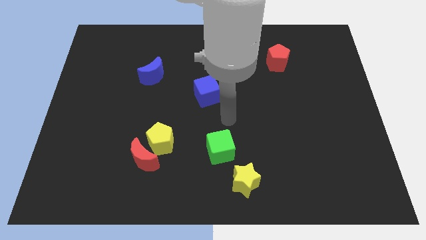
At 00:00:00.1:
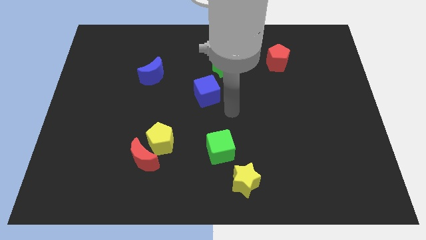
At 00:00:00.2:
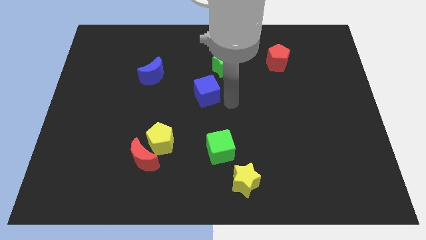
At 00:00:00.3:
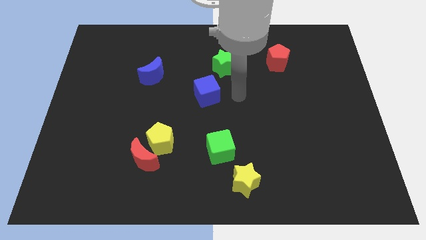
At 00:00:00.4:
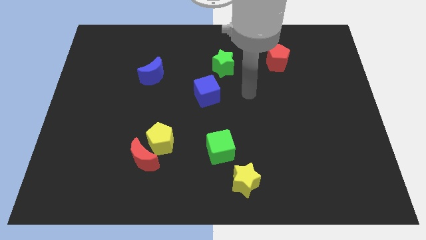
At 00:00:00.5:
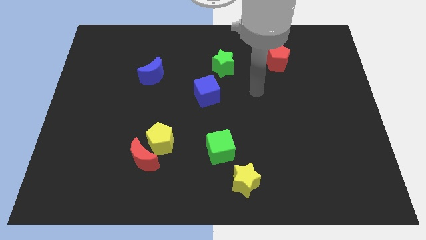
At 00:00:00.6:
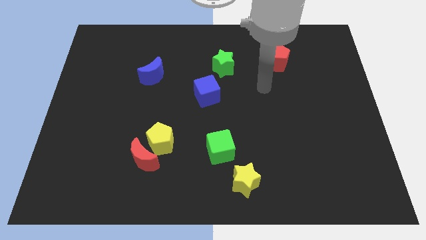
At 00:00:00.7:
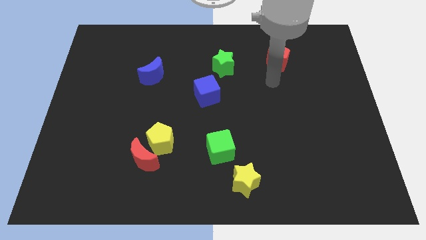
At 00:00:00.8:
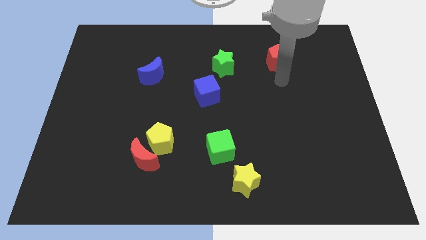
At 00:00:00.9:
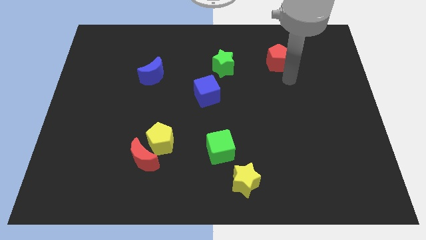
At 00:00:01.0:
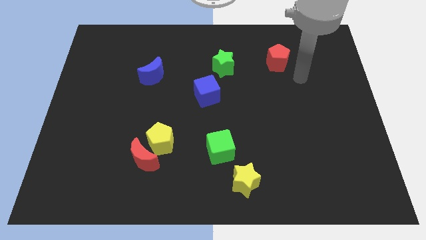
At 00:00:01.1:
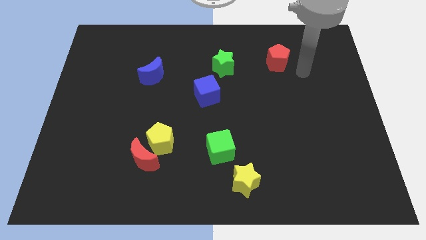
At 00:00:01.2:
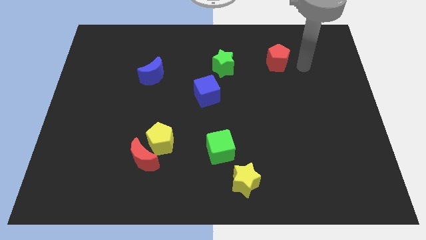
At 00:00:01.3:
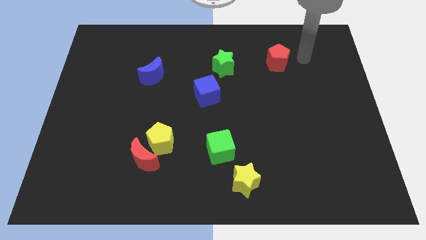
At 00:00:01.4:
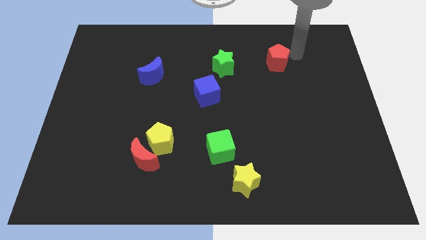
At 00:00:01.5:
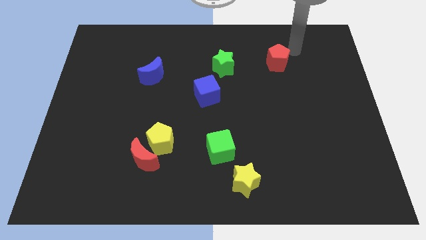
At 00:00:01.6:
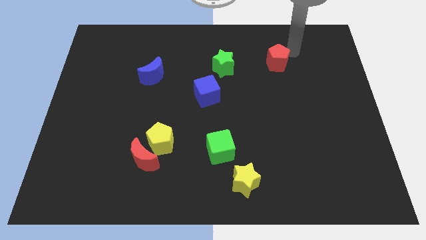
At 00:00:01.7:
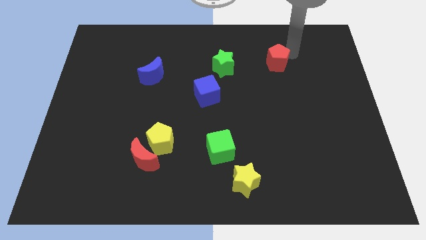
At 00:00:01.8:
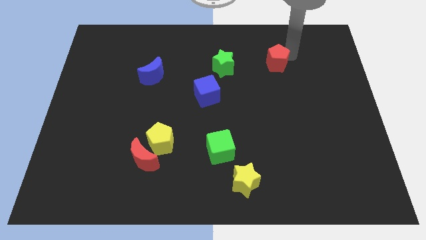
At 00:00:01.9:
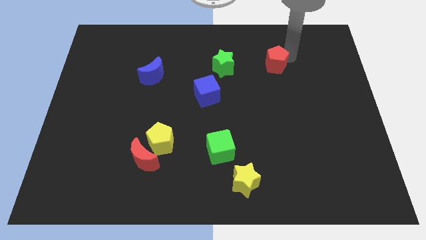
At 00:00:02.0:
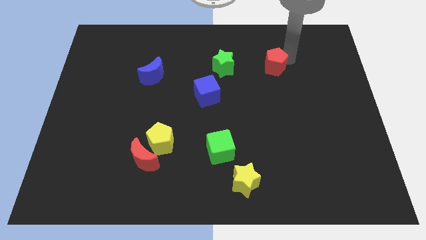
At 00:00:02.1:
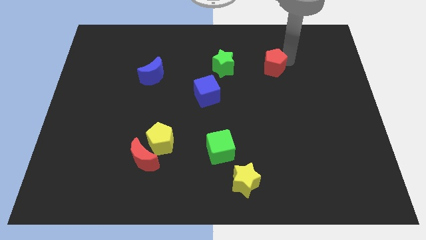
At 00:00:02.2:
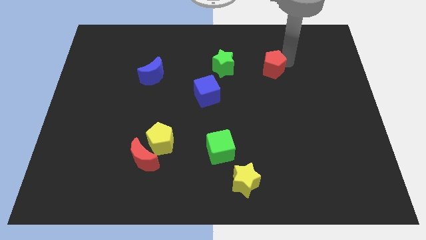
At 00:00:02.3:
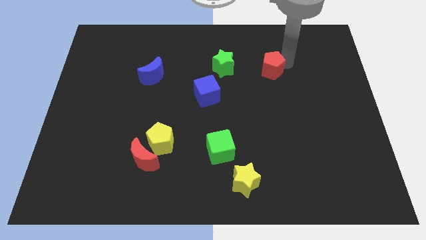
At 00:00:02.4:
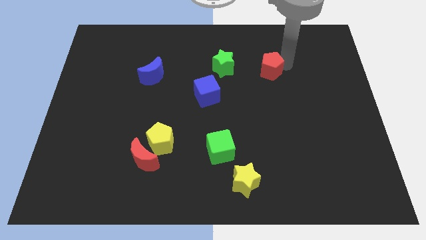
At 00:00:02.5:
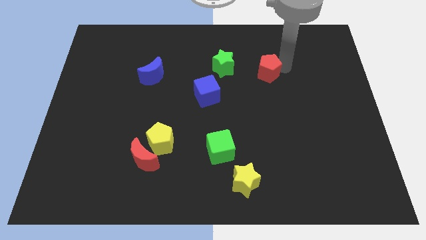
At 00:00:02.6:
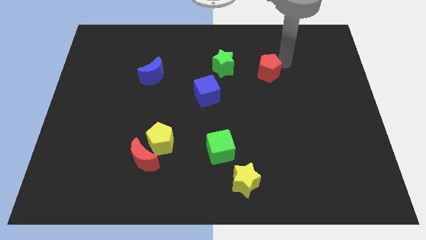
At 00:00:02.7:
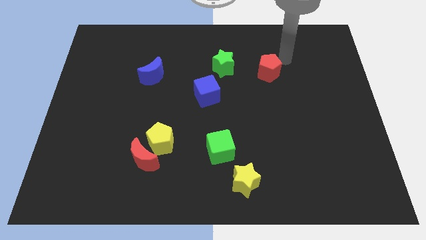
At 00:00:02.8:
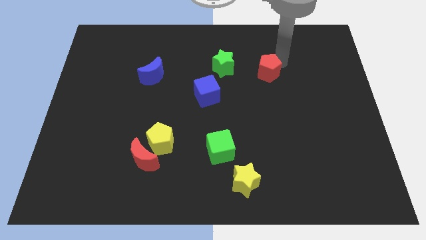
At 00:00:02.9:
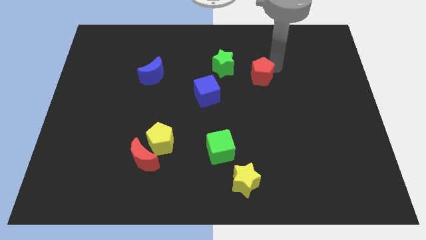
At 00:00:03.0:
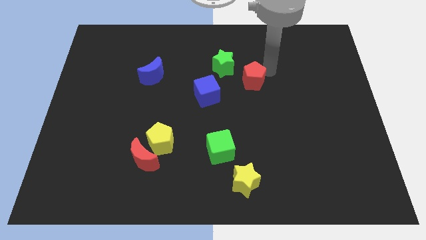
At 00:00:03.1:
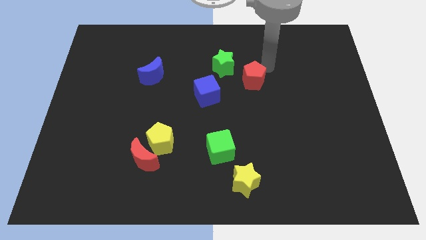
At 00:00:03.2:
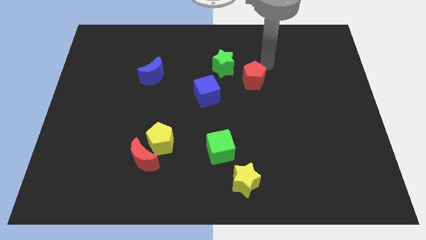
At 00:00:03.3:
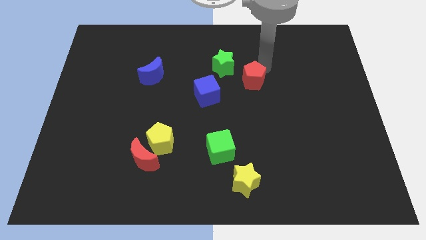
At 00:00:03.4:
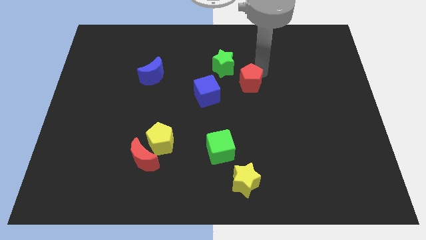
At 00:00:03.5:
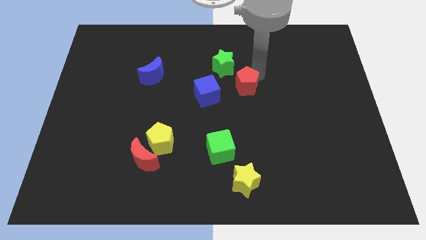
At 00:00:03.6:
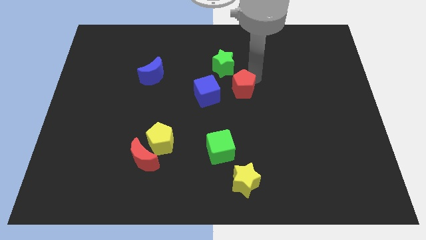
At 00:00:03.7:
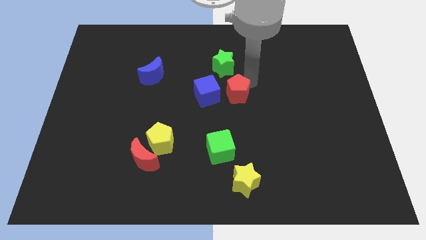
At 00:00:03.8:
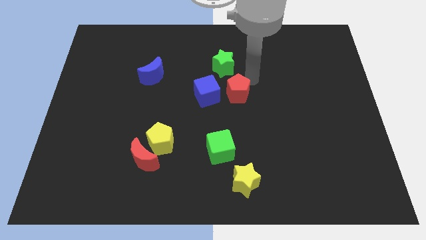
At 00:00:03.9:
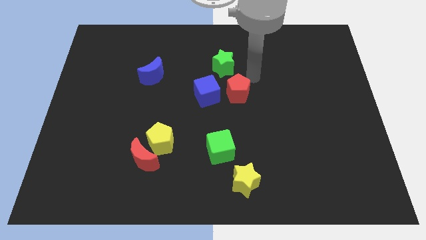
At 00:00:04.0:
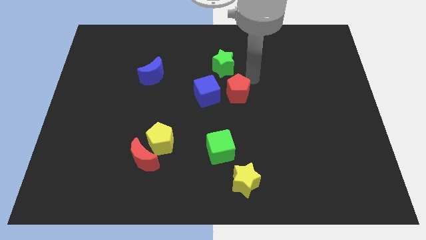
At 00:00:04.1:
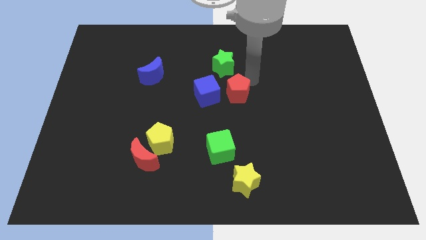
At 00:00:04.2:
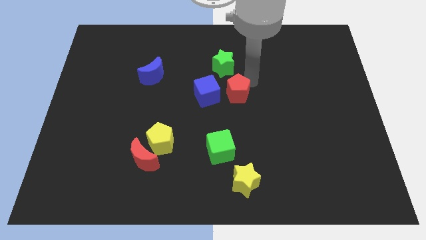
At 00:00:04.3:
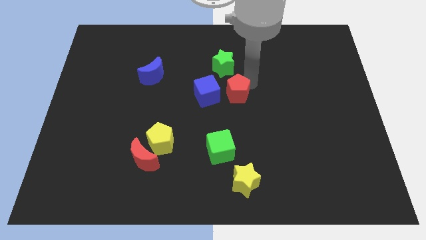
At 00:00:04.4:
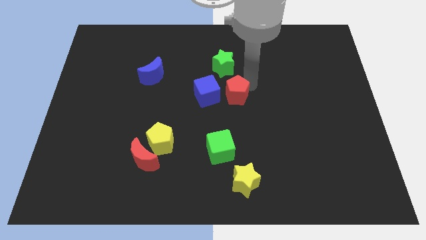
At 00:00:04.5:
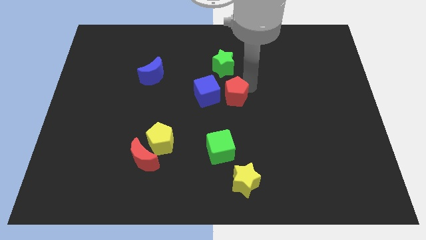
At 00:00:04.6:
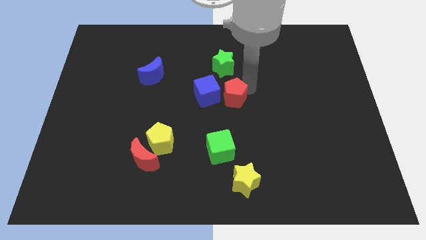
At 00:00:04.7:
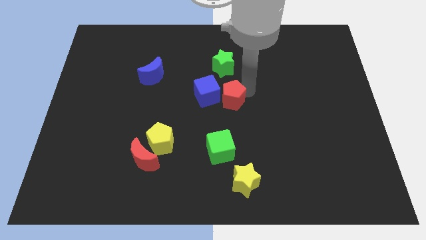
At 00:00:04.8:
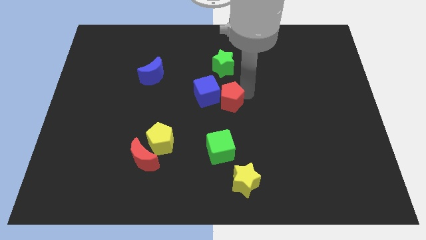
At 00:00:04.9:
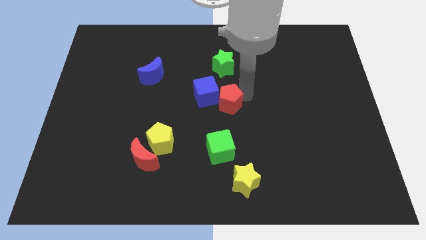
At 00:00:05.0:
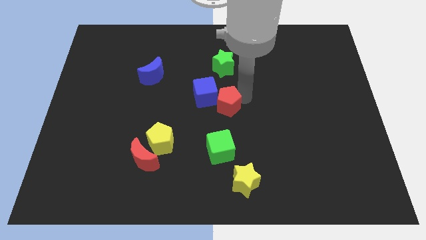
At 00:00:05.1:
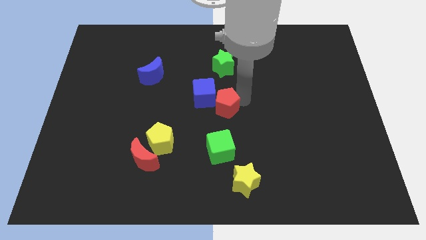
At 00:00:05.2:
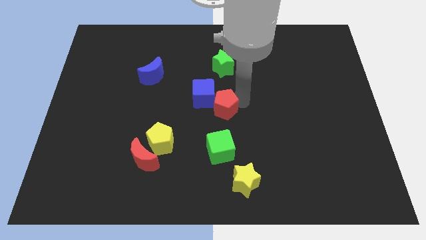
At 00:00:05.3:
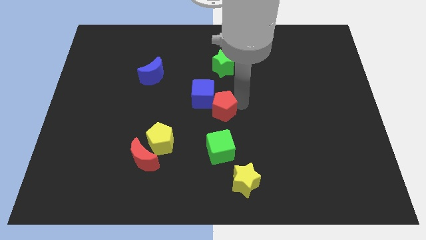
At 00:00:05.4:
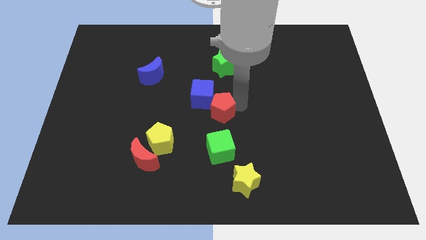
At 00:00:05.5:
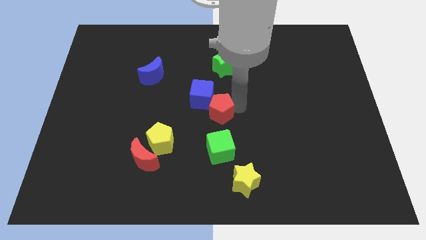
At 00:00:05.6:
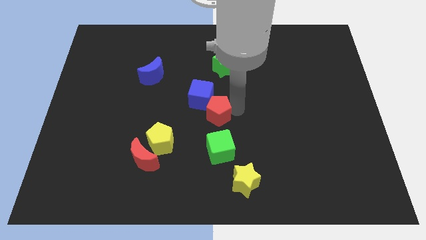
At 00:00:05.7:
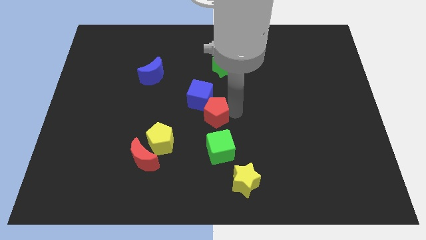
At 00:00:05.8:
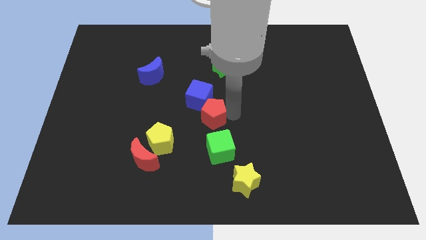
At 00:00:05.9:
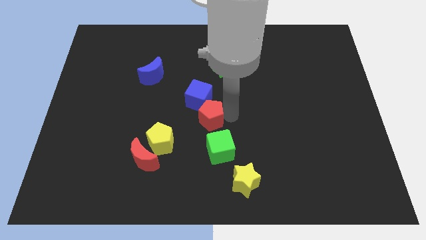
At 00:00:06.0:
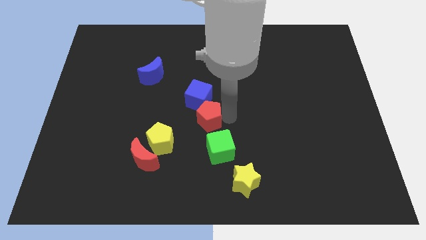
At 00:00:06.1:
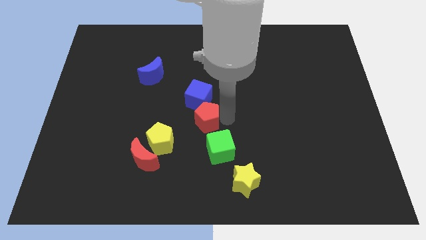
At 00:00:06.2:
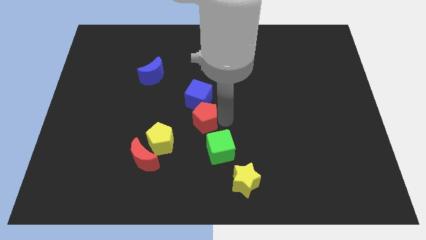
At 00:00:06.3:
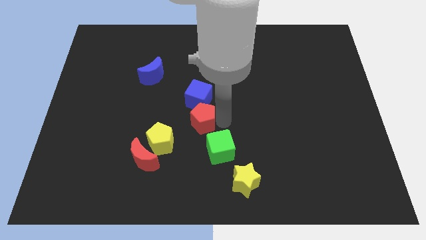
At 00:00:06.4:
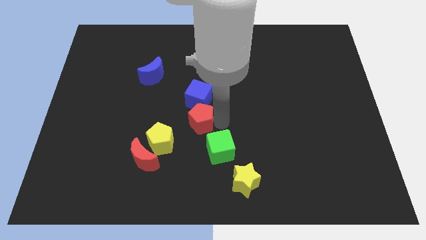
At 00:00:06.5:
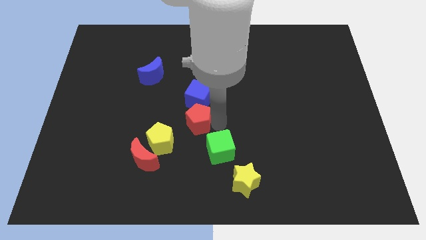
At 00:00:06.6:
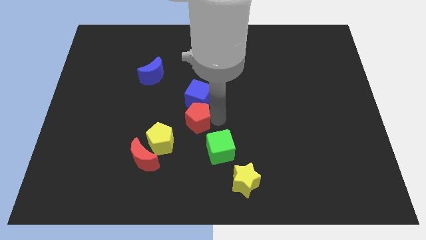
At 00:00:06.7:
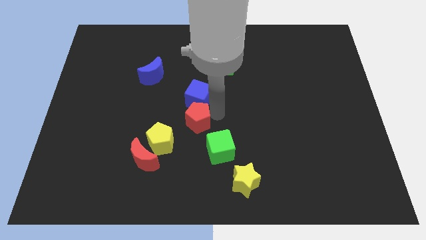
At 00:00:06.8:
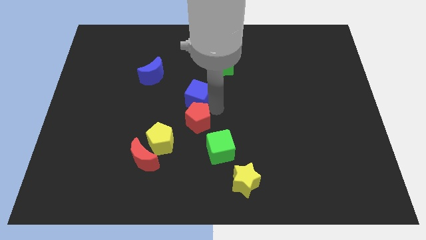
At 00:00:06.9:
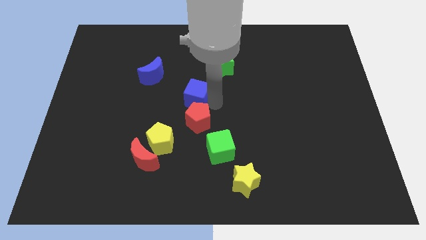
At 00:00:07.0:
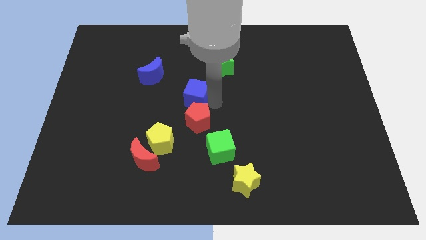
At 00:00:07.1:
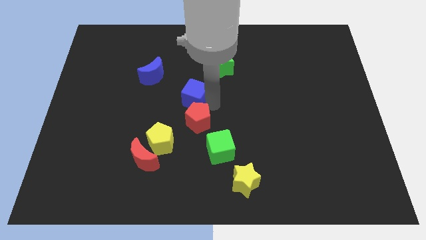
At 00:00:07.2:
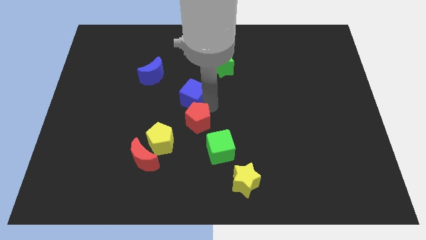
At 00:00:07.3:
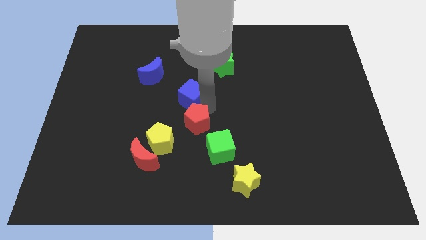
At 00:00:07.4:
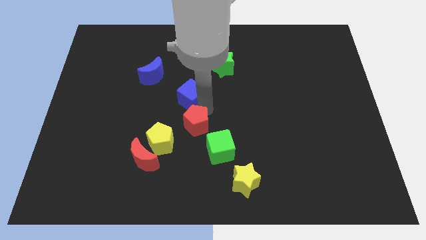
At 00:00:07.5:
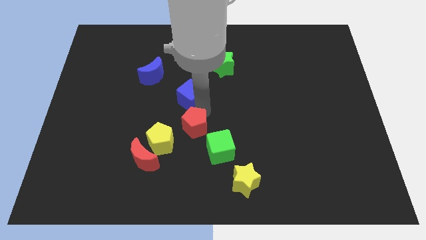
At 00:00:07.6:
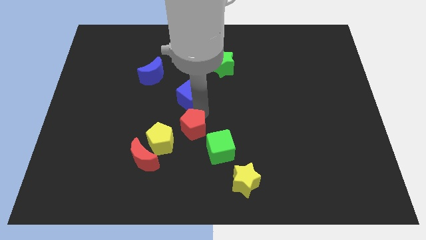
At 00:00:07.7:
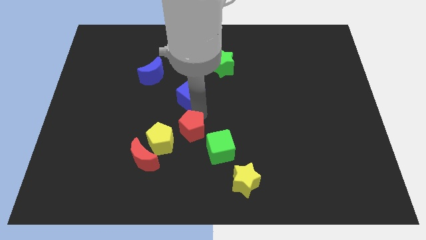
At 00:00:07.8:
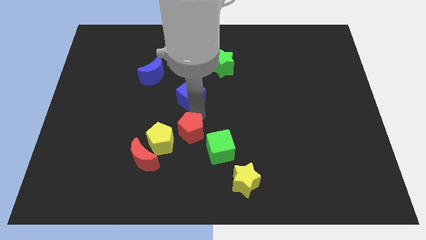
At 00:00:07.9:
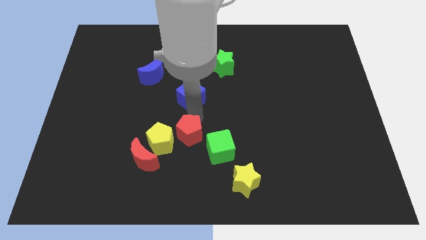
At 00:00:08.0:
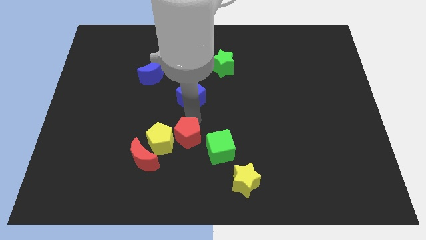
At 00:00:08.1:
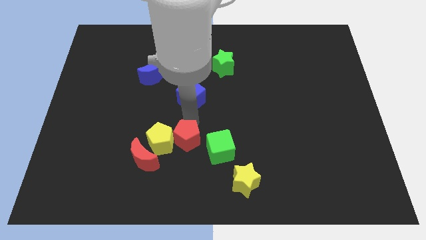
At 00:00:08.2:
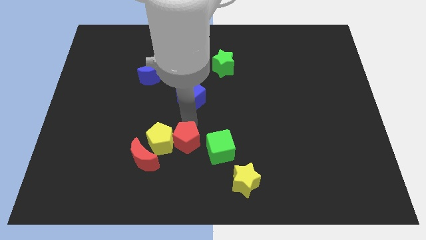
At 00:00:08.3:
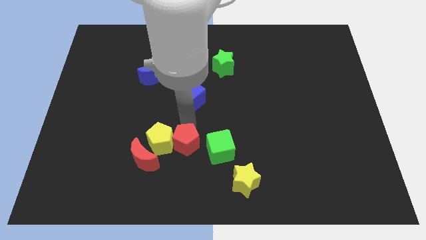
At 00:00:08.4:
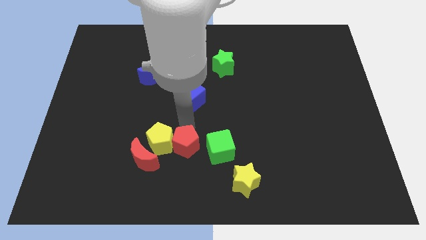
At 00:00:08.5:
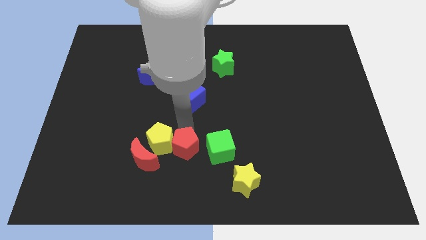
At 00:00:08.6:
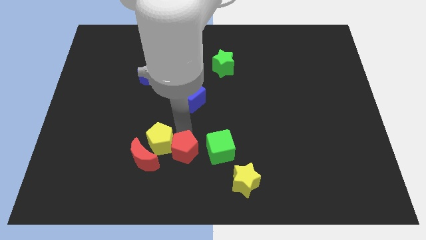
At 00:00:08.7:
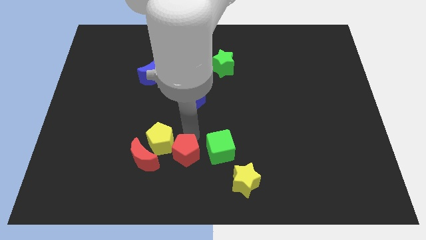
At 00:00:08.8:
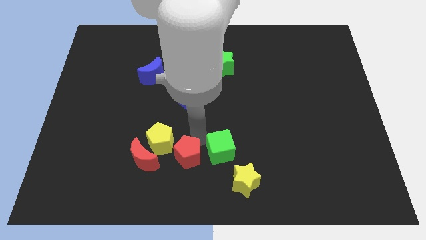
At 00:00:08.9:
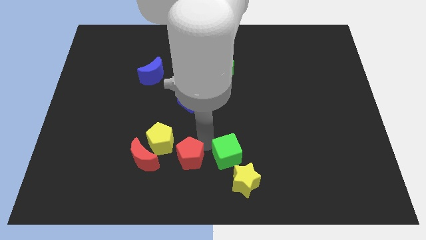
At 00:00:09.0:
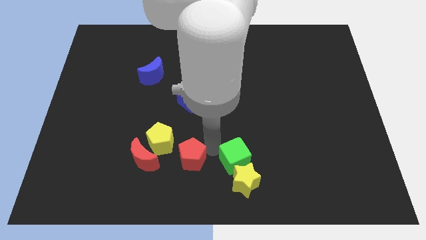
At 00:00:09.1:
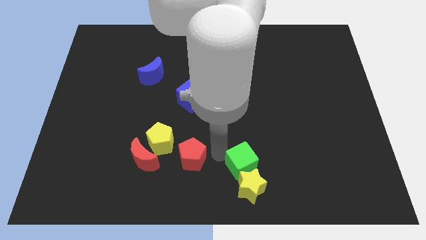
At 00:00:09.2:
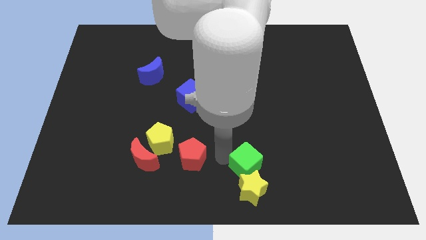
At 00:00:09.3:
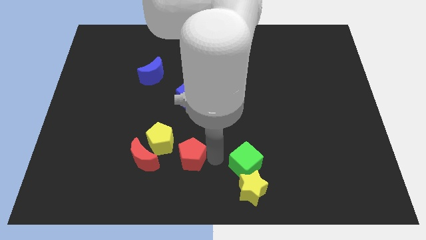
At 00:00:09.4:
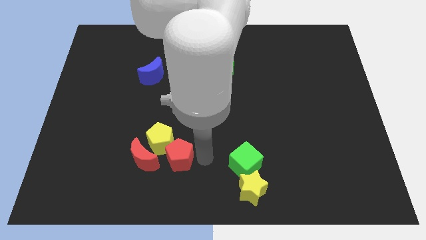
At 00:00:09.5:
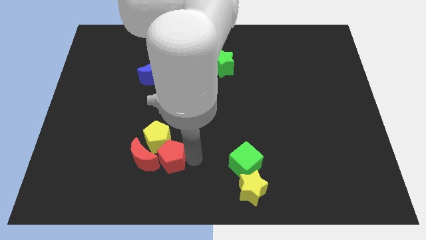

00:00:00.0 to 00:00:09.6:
push the red pentagon next to the red moon
